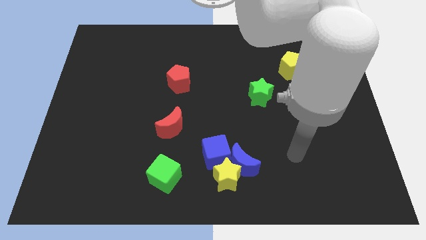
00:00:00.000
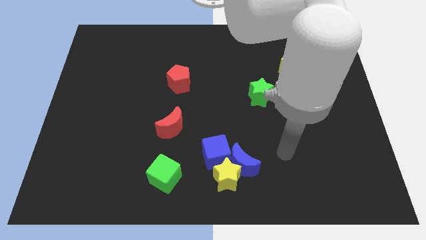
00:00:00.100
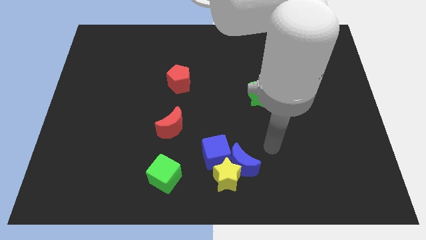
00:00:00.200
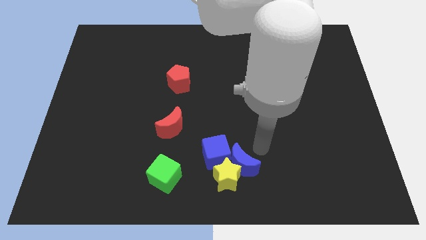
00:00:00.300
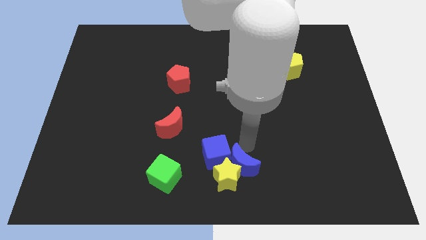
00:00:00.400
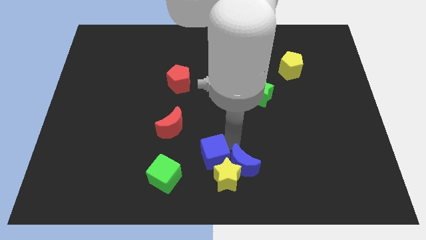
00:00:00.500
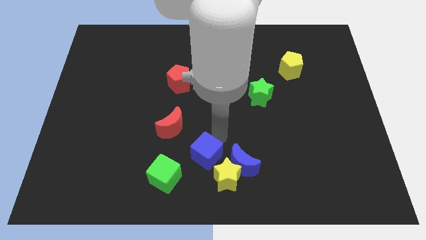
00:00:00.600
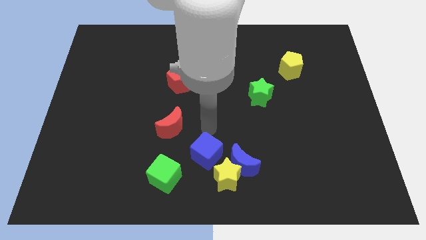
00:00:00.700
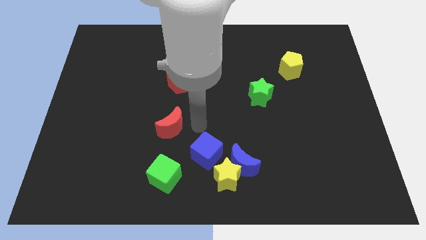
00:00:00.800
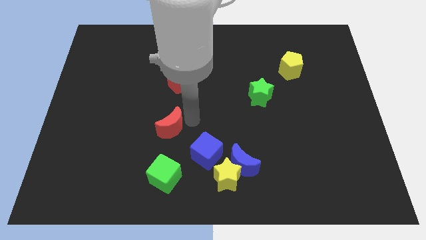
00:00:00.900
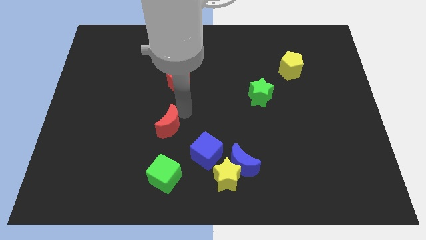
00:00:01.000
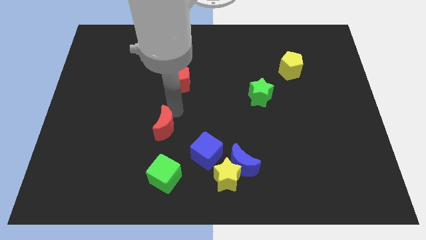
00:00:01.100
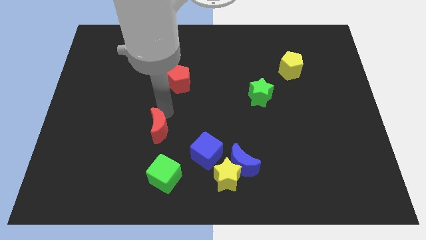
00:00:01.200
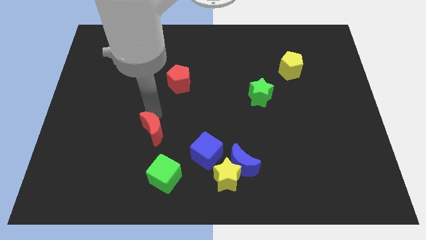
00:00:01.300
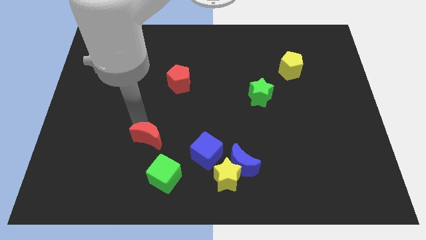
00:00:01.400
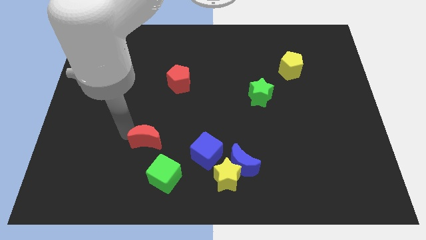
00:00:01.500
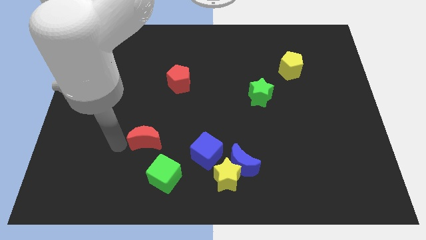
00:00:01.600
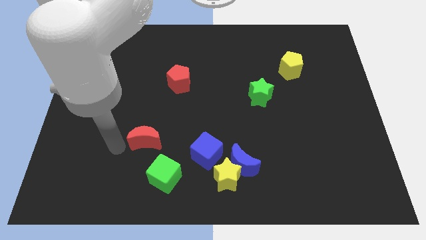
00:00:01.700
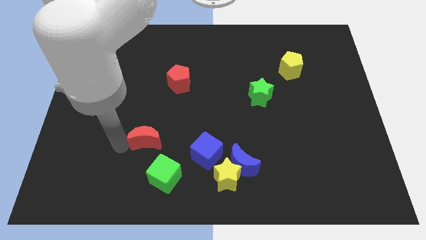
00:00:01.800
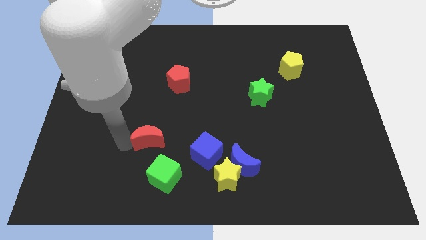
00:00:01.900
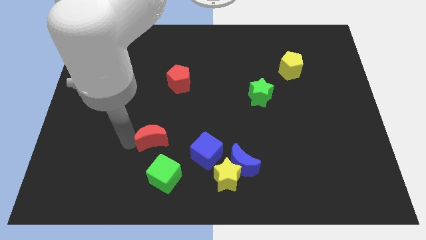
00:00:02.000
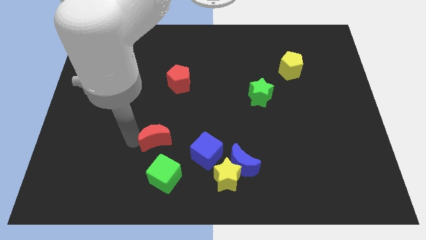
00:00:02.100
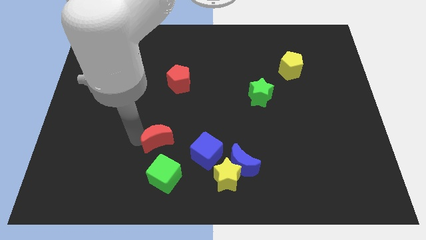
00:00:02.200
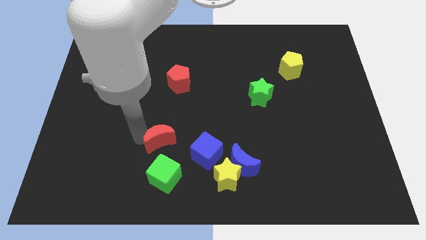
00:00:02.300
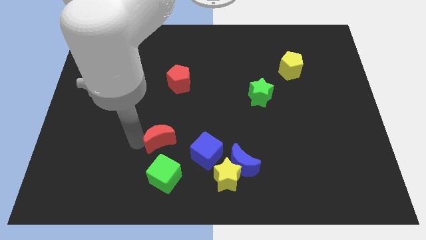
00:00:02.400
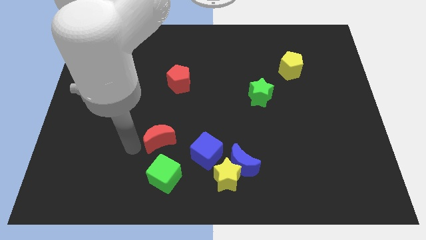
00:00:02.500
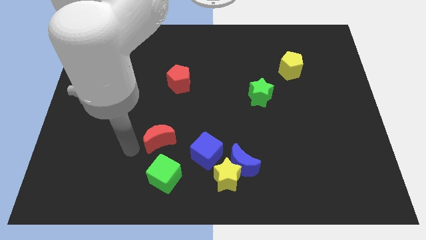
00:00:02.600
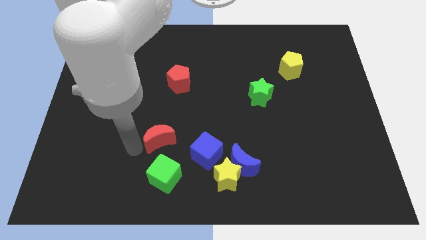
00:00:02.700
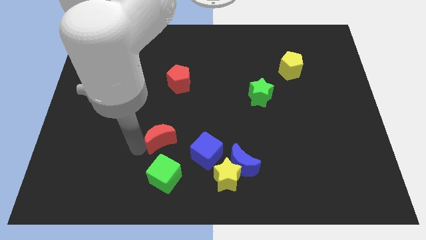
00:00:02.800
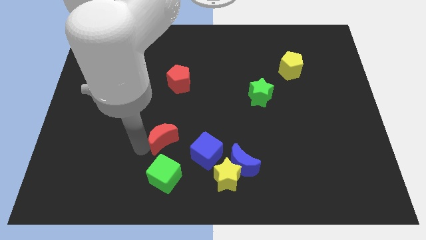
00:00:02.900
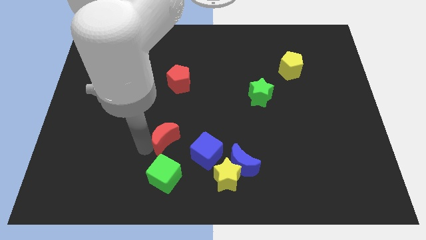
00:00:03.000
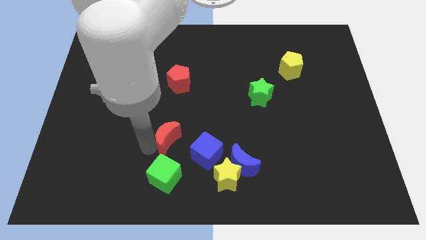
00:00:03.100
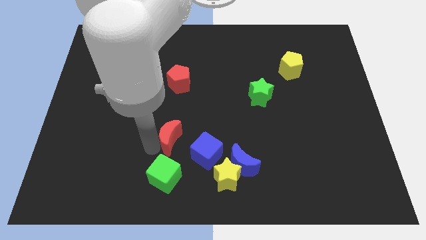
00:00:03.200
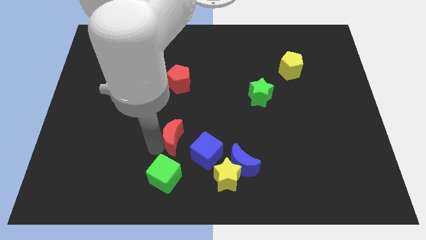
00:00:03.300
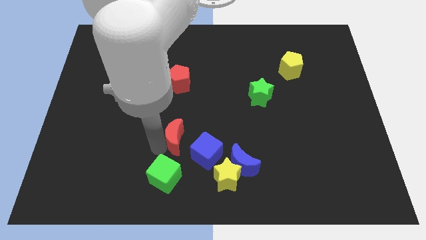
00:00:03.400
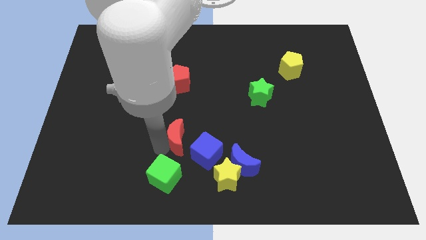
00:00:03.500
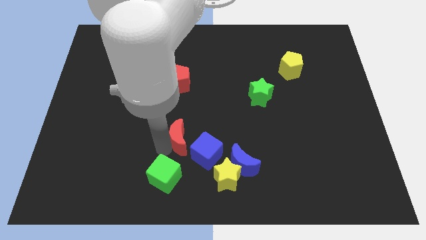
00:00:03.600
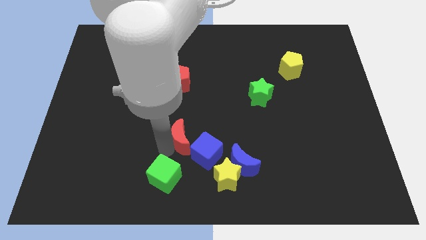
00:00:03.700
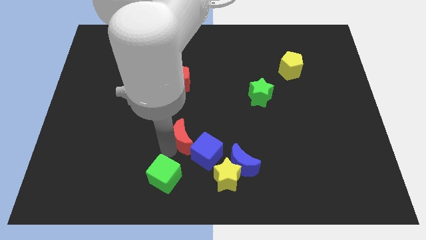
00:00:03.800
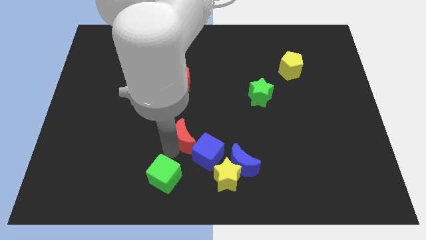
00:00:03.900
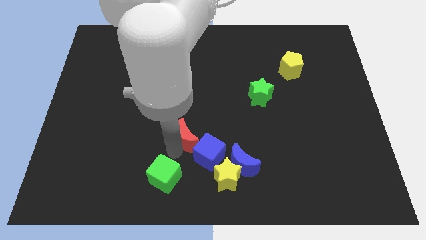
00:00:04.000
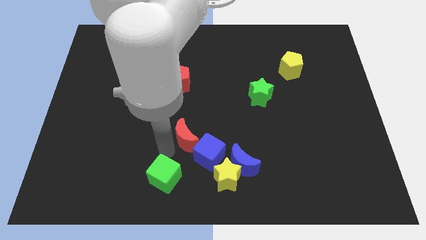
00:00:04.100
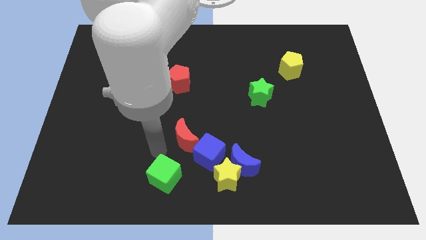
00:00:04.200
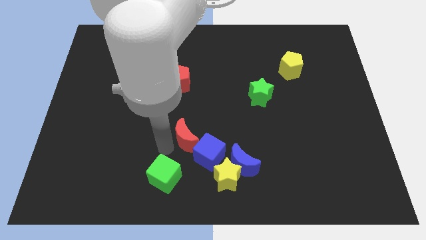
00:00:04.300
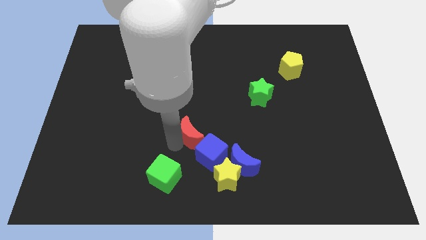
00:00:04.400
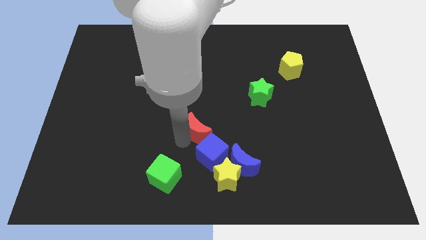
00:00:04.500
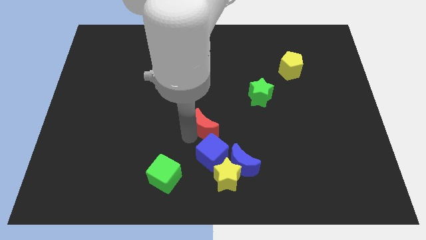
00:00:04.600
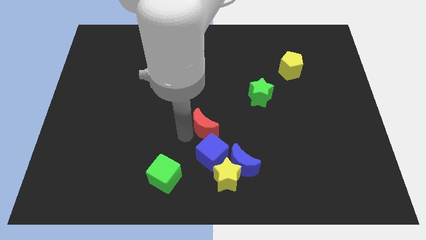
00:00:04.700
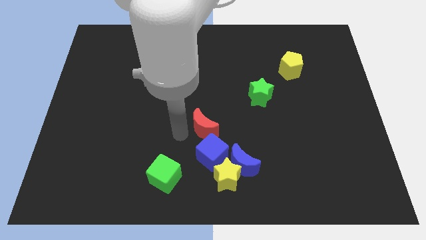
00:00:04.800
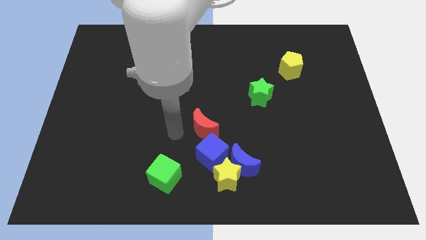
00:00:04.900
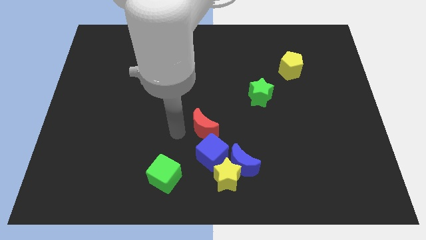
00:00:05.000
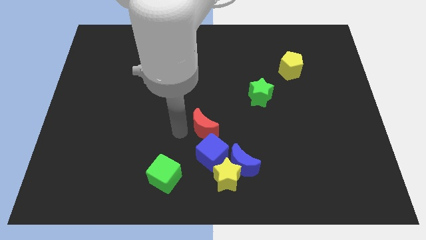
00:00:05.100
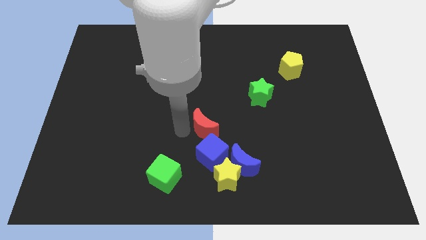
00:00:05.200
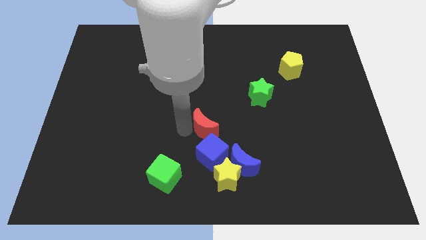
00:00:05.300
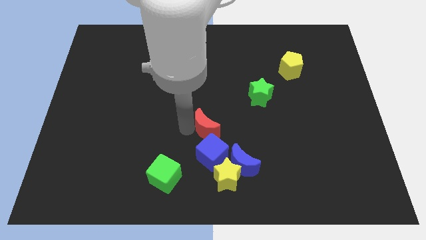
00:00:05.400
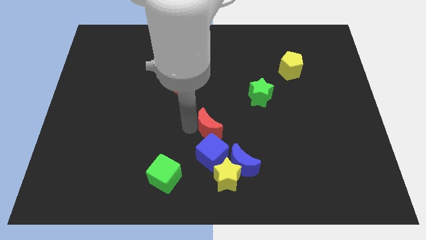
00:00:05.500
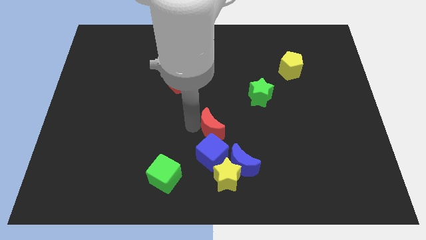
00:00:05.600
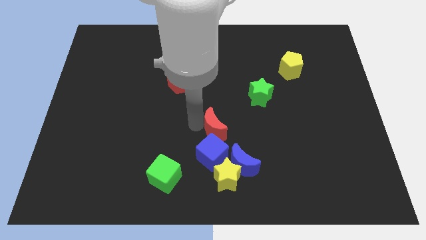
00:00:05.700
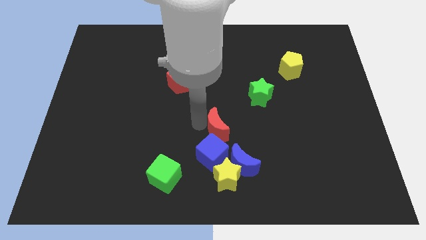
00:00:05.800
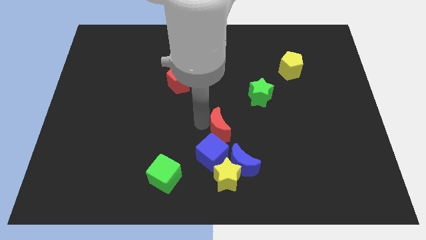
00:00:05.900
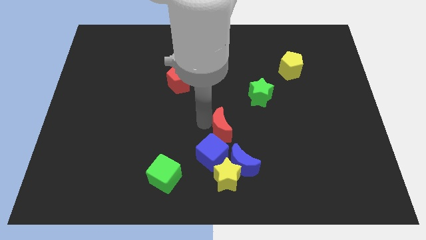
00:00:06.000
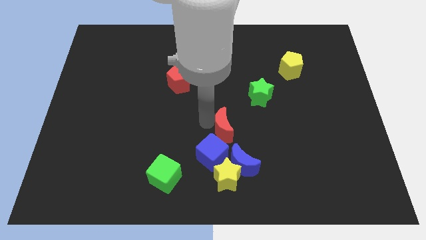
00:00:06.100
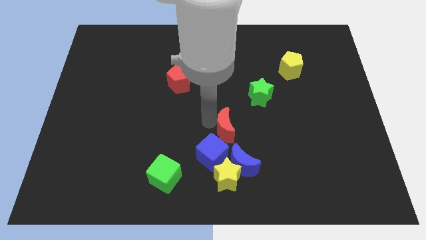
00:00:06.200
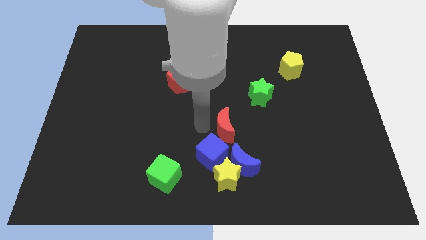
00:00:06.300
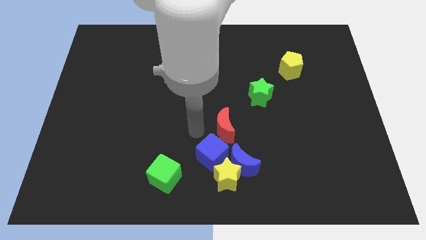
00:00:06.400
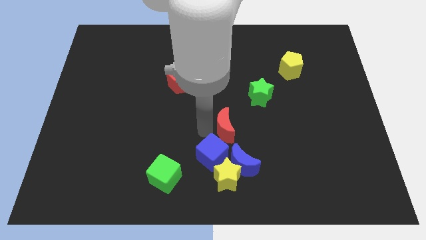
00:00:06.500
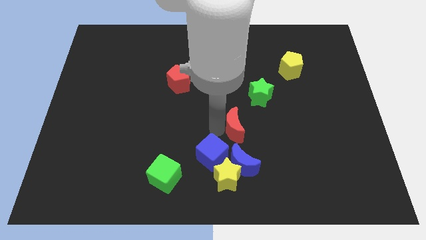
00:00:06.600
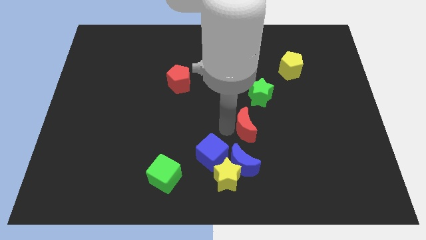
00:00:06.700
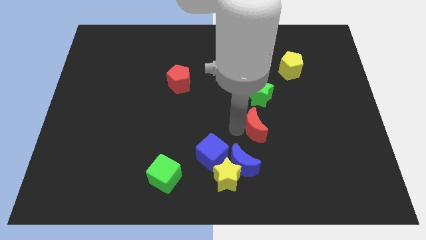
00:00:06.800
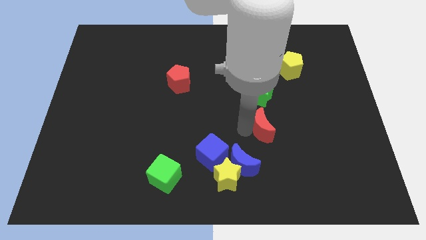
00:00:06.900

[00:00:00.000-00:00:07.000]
push the red moon right

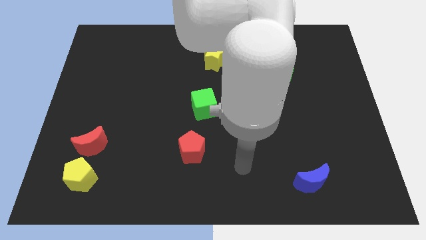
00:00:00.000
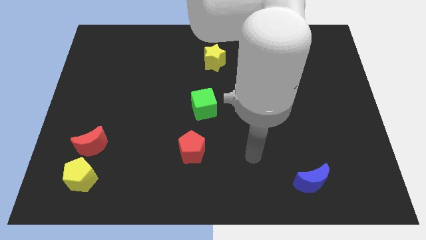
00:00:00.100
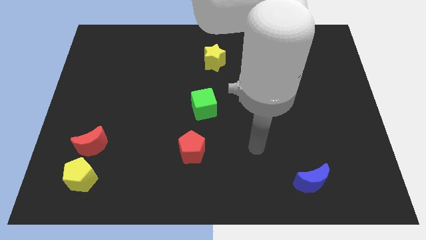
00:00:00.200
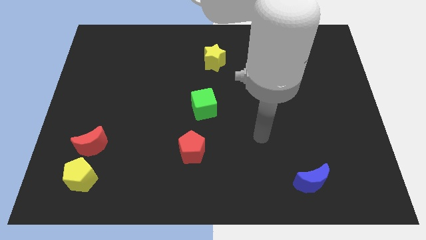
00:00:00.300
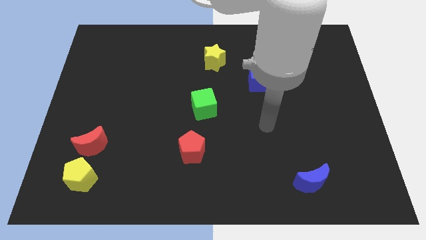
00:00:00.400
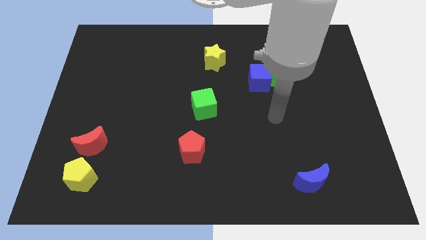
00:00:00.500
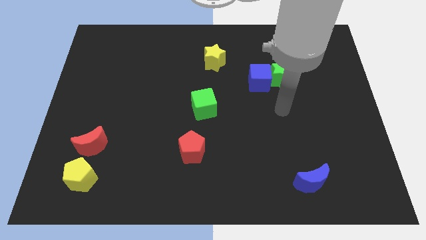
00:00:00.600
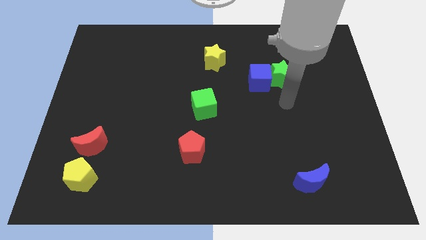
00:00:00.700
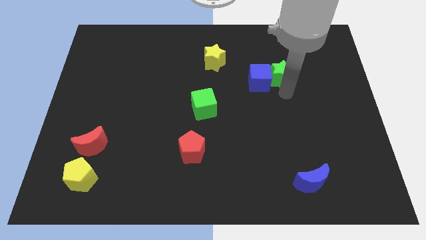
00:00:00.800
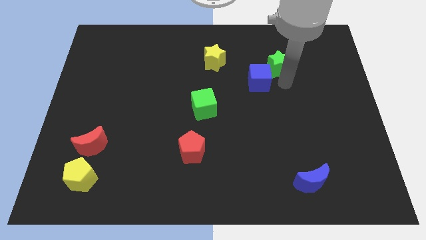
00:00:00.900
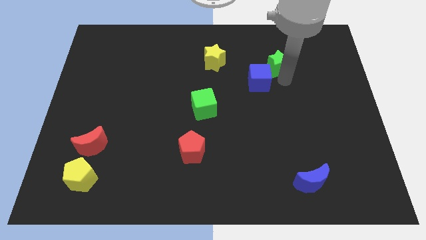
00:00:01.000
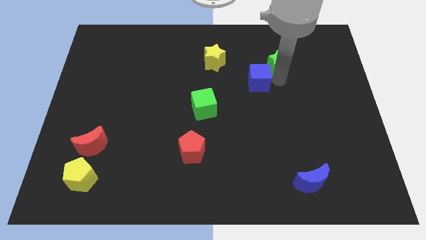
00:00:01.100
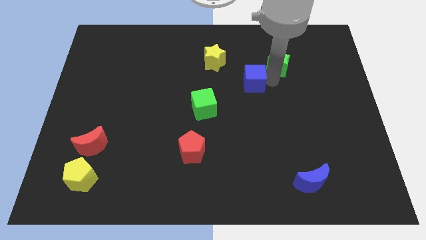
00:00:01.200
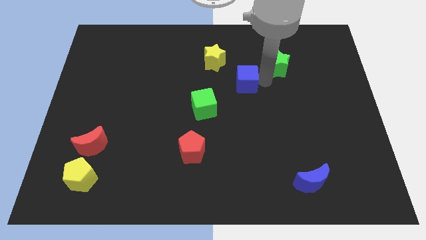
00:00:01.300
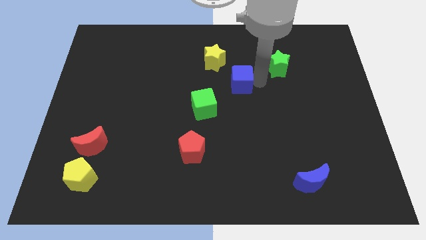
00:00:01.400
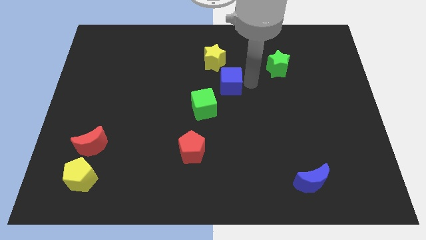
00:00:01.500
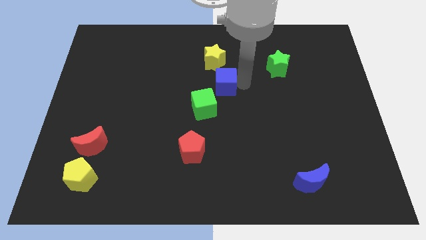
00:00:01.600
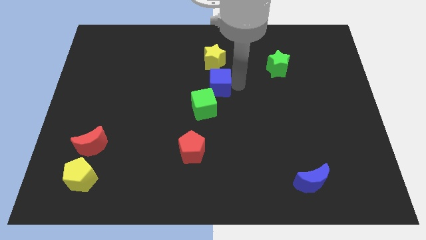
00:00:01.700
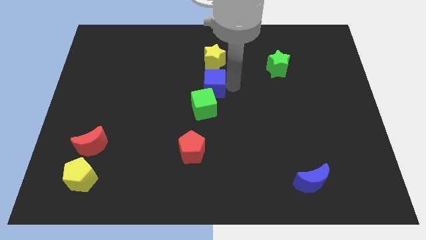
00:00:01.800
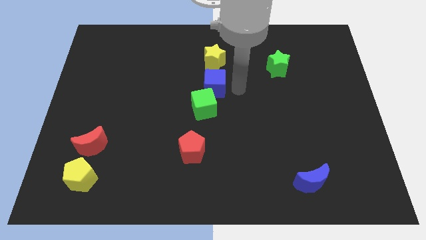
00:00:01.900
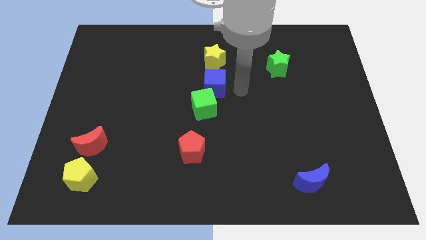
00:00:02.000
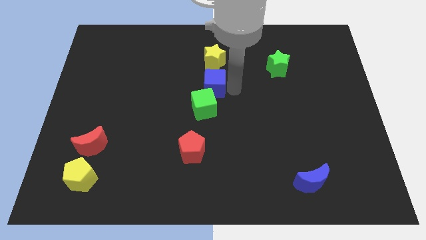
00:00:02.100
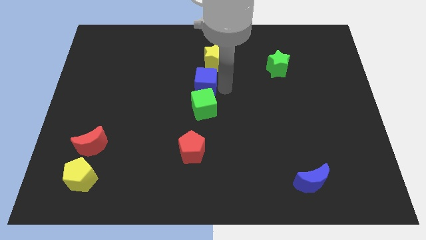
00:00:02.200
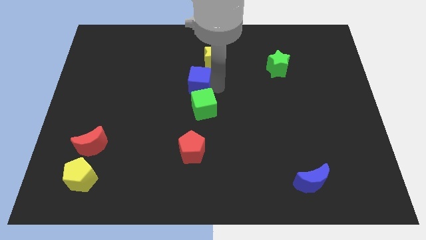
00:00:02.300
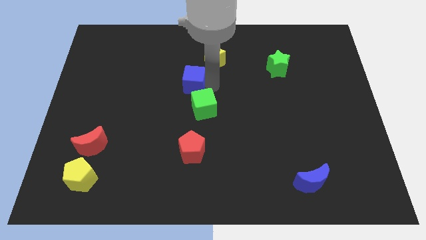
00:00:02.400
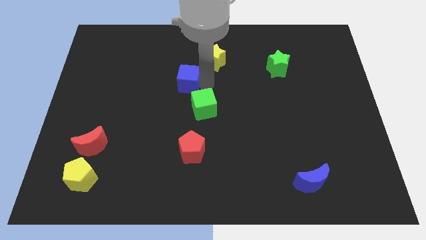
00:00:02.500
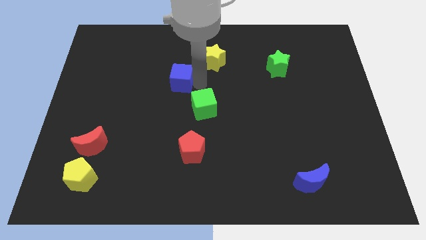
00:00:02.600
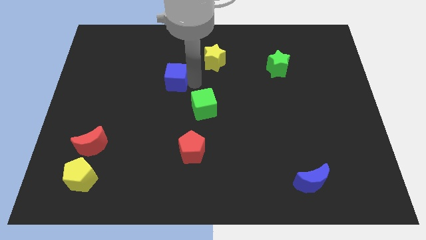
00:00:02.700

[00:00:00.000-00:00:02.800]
push the blue cube left
